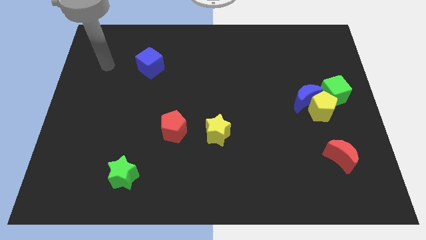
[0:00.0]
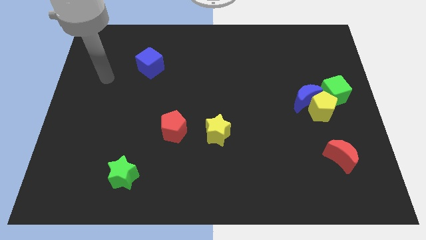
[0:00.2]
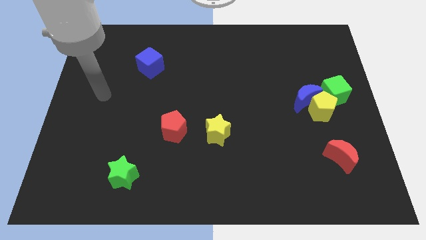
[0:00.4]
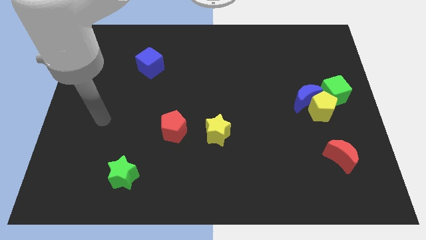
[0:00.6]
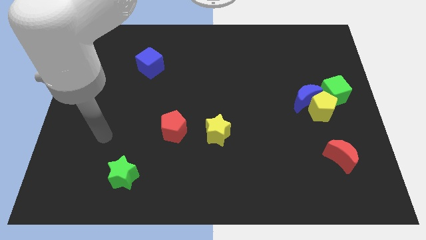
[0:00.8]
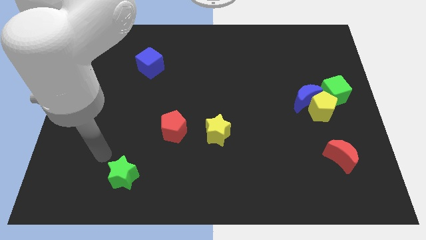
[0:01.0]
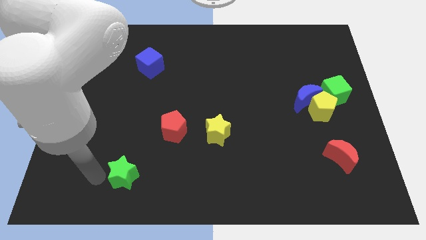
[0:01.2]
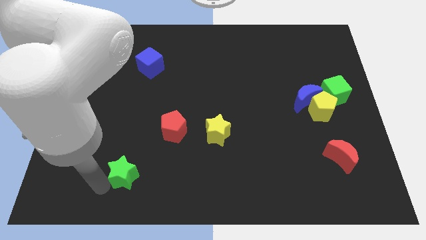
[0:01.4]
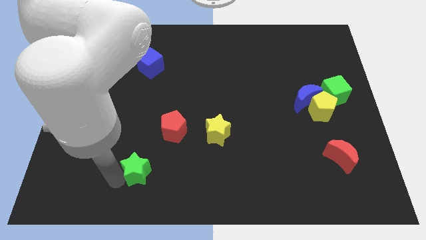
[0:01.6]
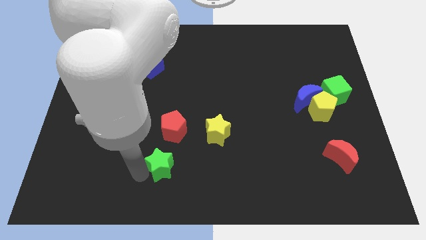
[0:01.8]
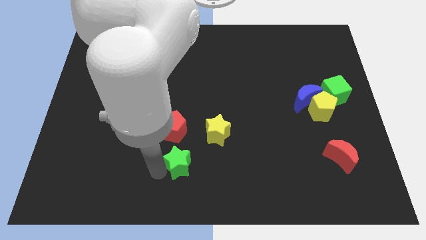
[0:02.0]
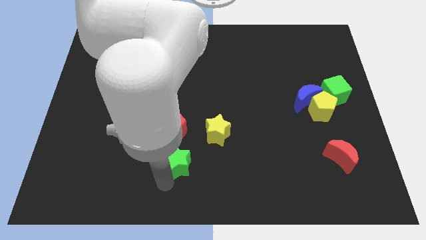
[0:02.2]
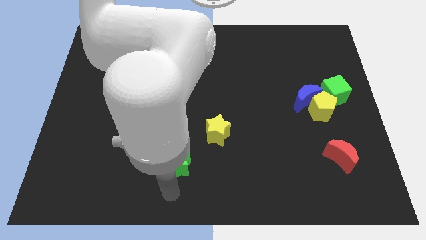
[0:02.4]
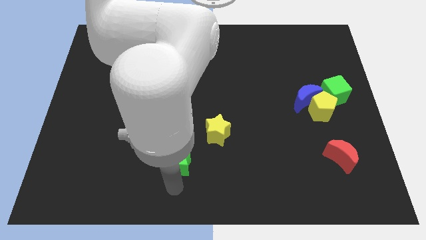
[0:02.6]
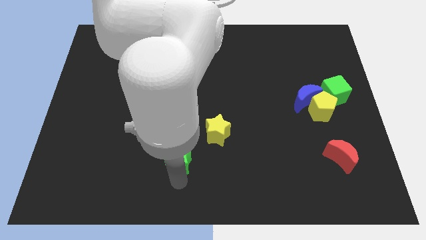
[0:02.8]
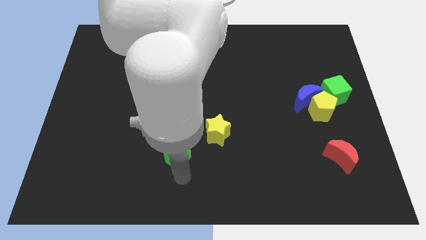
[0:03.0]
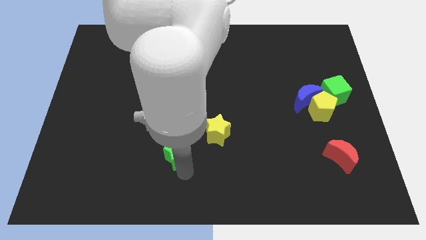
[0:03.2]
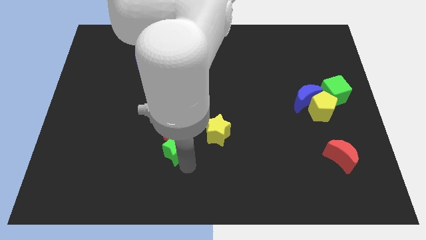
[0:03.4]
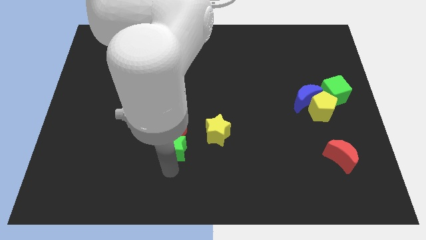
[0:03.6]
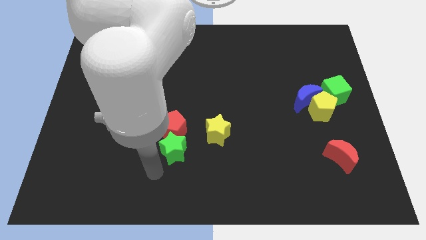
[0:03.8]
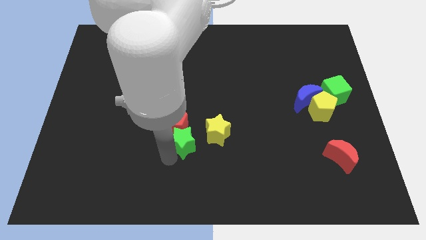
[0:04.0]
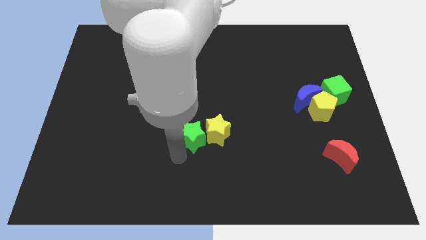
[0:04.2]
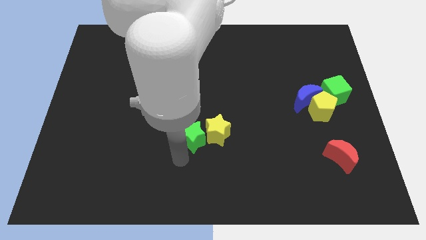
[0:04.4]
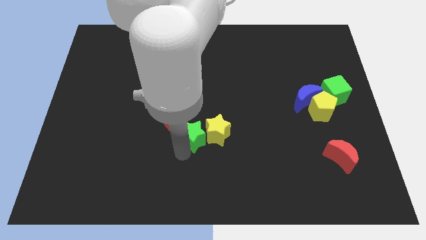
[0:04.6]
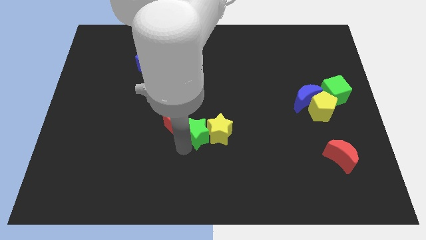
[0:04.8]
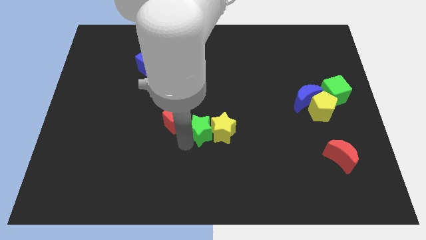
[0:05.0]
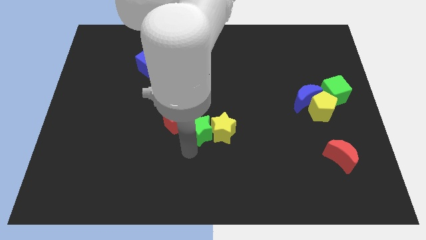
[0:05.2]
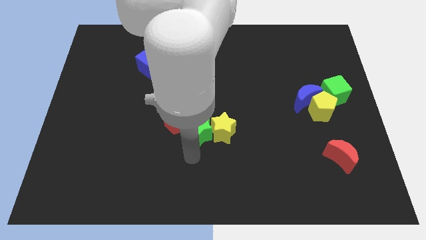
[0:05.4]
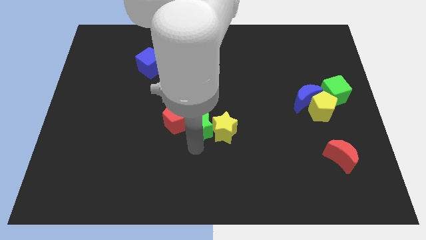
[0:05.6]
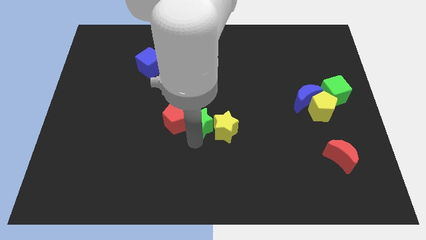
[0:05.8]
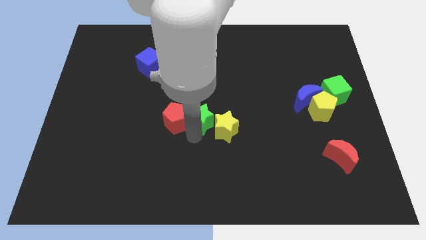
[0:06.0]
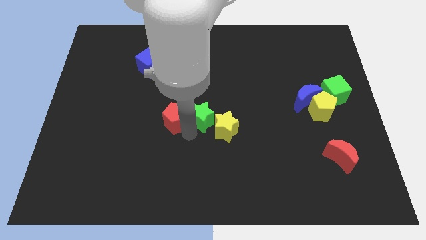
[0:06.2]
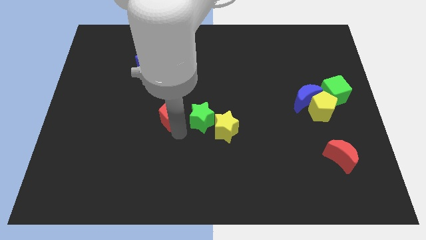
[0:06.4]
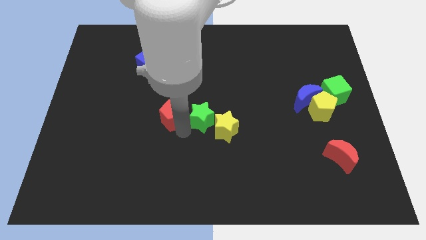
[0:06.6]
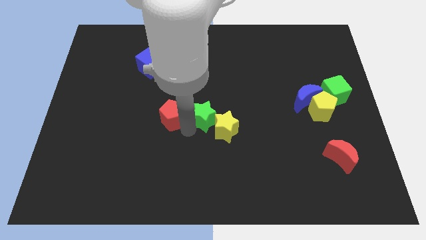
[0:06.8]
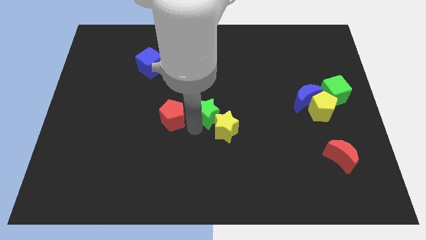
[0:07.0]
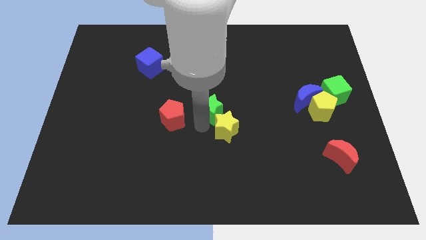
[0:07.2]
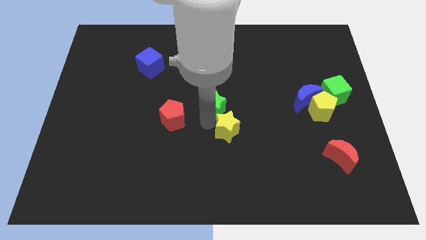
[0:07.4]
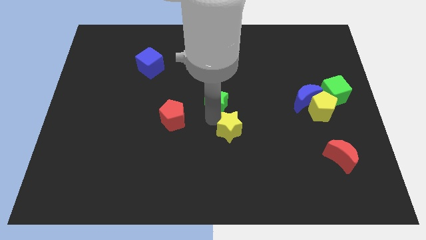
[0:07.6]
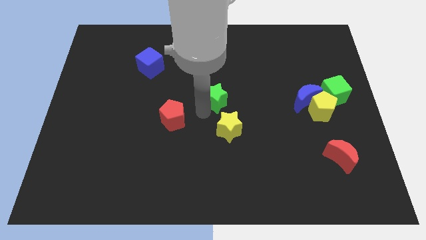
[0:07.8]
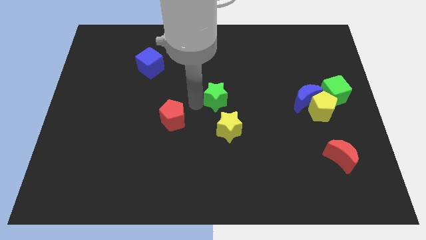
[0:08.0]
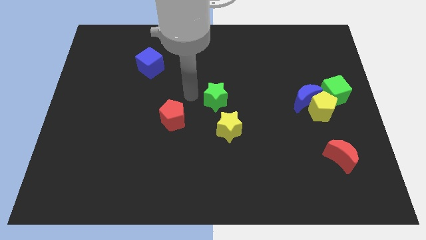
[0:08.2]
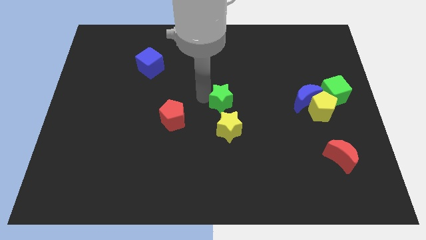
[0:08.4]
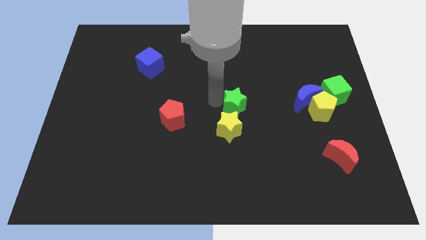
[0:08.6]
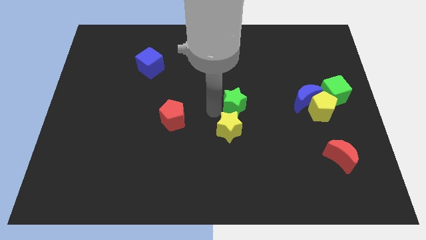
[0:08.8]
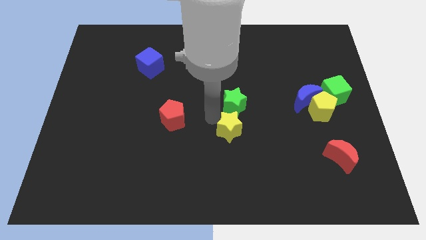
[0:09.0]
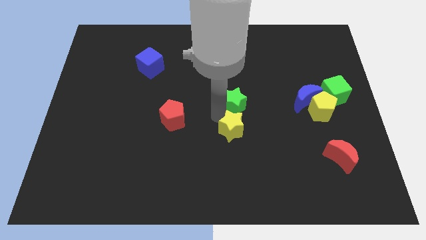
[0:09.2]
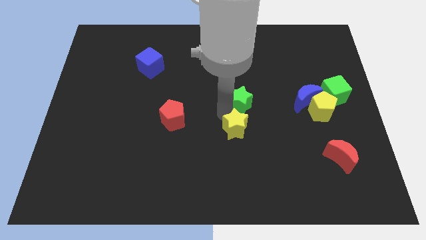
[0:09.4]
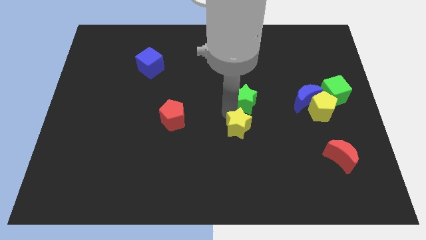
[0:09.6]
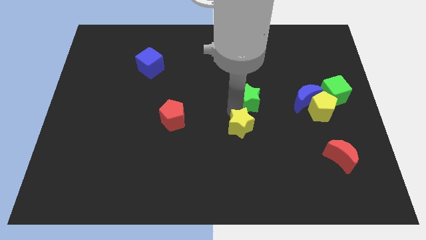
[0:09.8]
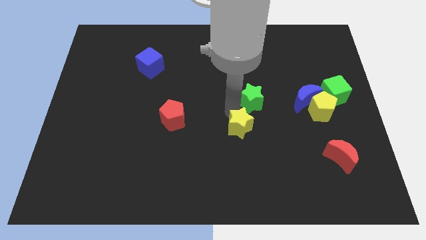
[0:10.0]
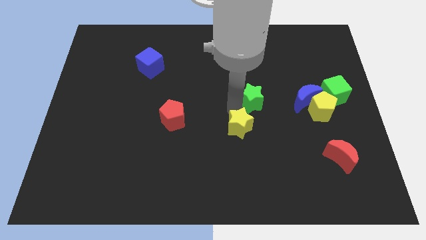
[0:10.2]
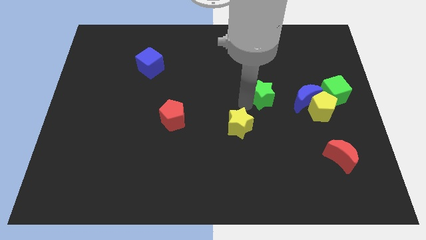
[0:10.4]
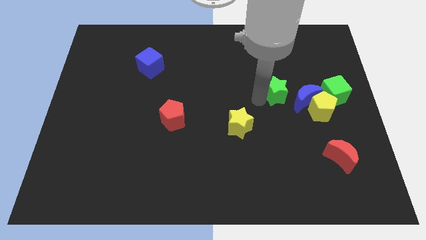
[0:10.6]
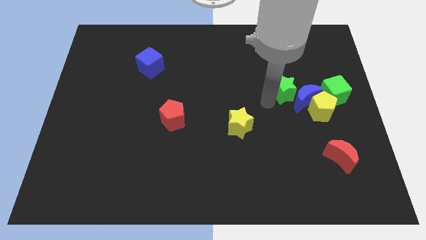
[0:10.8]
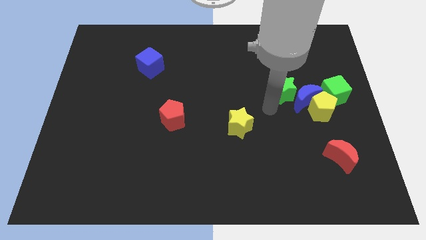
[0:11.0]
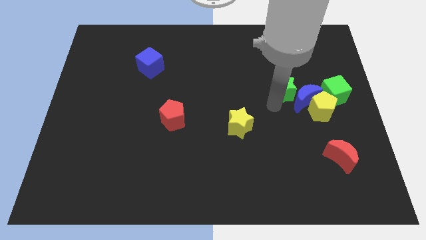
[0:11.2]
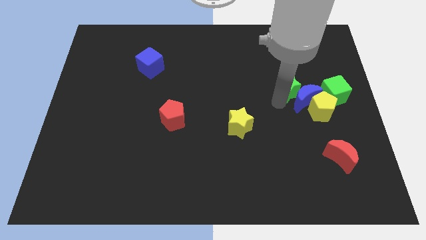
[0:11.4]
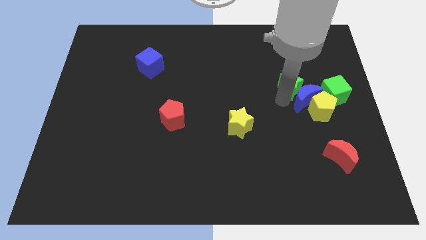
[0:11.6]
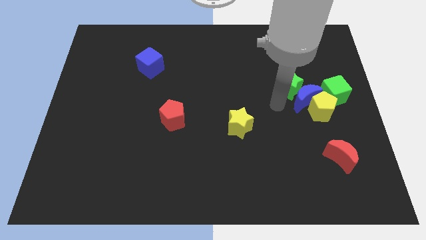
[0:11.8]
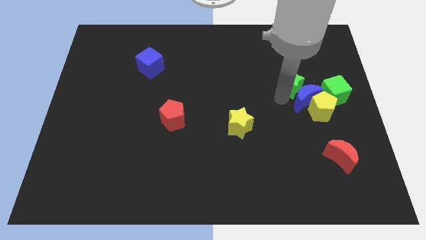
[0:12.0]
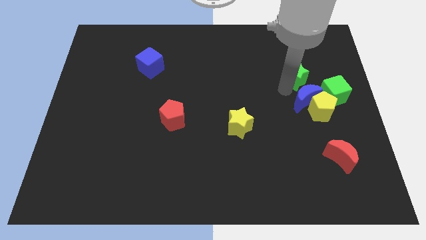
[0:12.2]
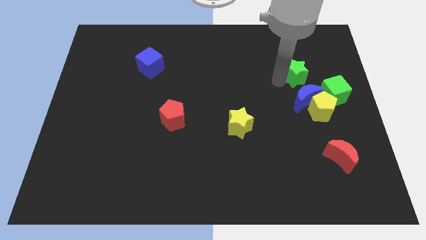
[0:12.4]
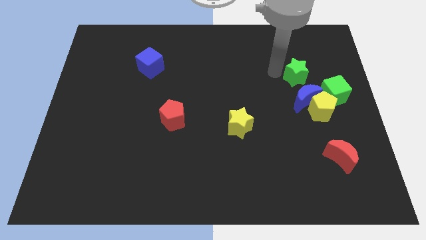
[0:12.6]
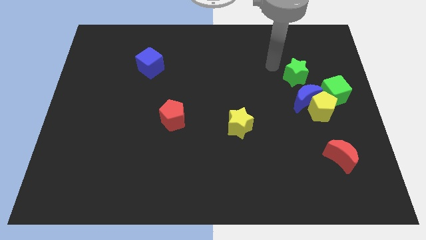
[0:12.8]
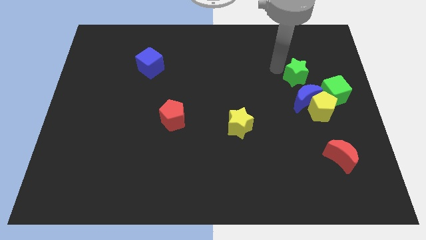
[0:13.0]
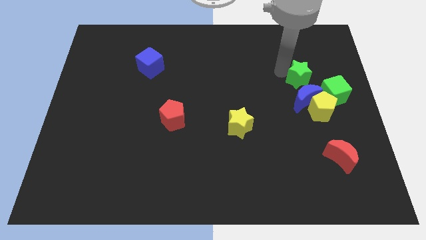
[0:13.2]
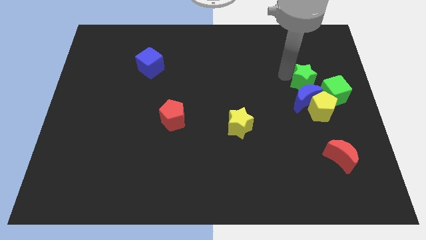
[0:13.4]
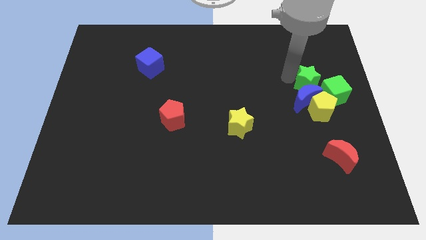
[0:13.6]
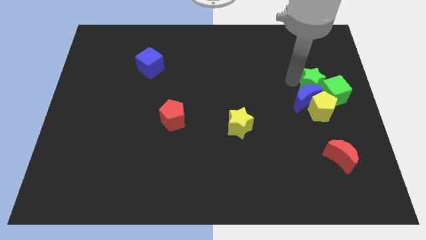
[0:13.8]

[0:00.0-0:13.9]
move the green star to the green cube
